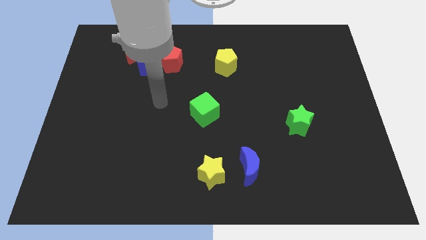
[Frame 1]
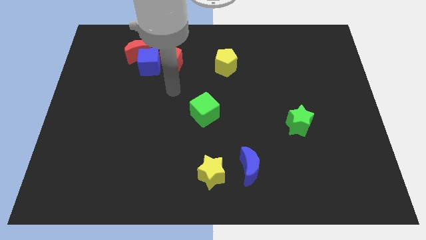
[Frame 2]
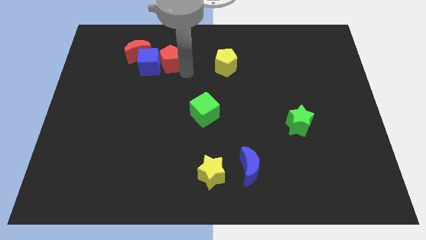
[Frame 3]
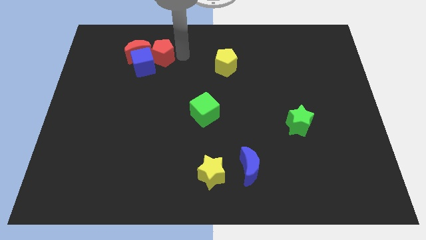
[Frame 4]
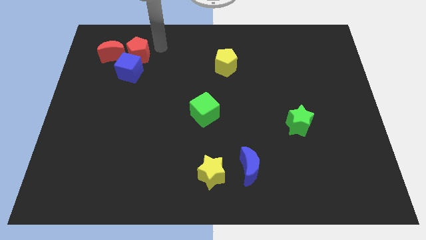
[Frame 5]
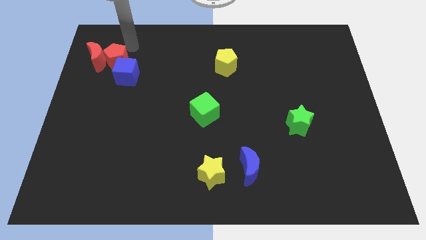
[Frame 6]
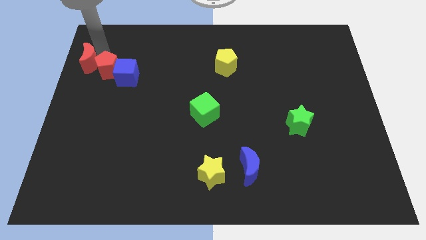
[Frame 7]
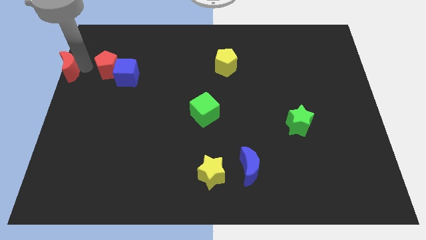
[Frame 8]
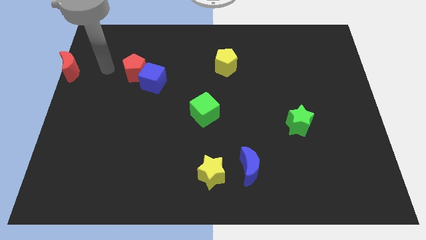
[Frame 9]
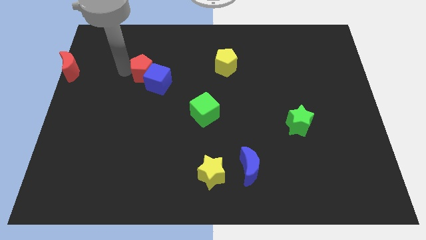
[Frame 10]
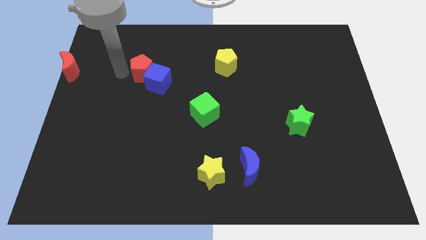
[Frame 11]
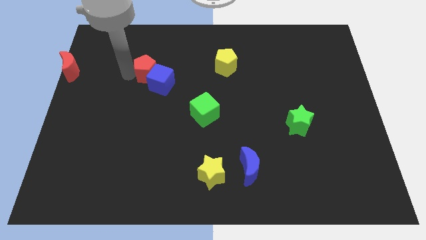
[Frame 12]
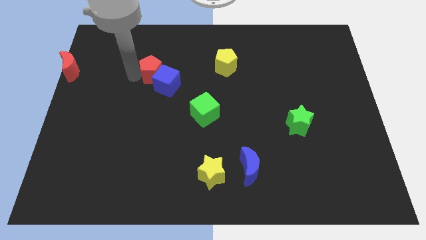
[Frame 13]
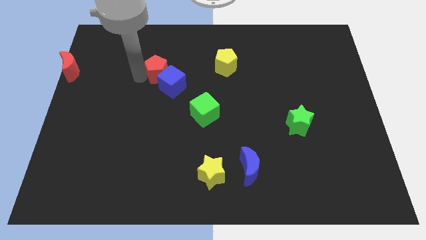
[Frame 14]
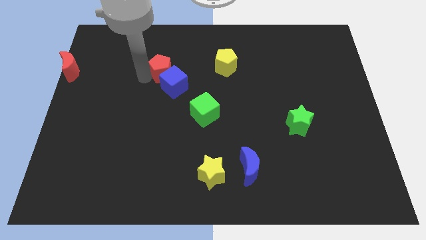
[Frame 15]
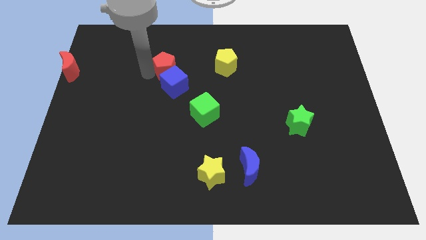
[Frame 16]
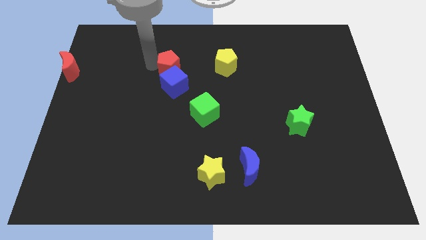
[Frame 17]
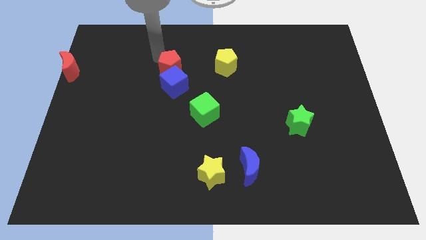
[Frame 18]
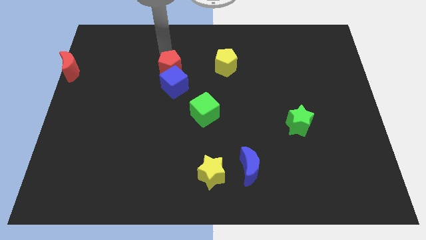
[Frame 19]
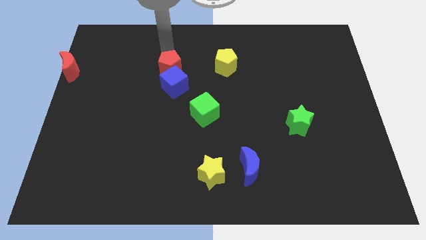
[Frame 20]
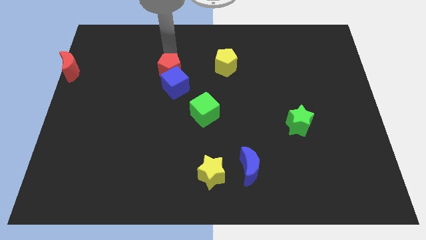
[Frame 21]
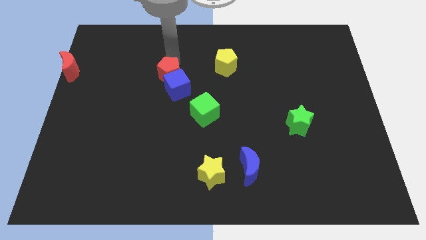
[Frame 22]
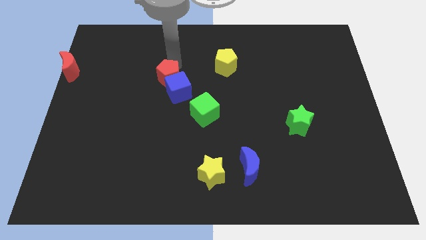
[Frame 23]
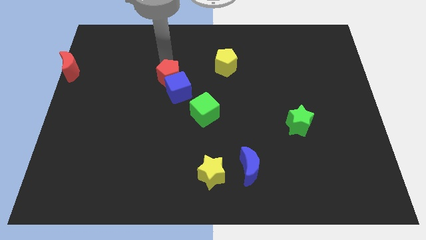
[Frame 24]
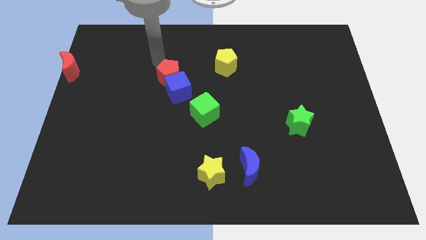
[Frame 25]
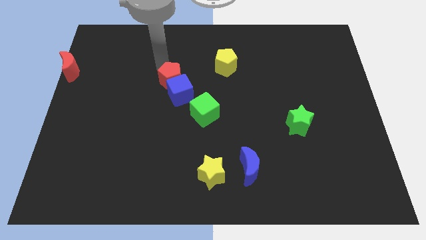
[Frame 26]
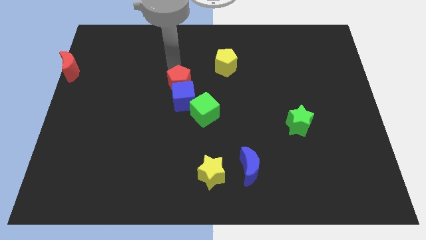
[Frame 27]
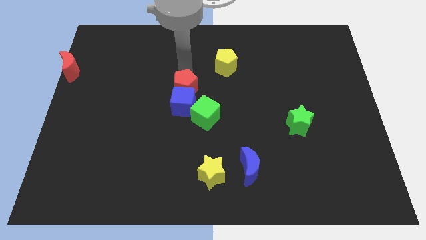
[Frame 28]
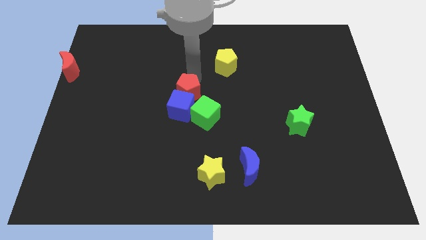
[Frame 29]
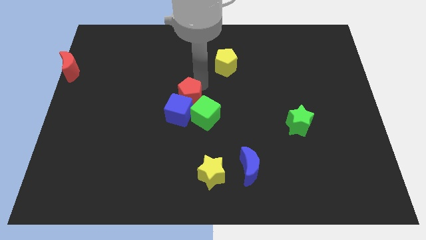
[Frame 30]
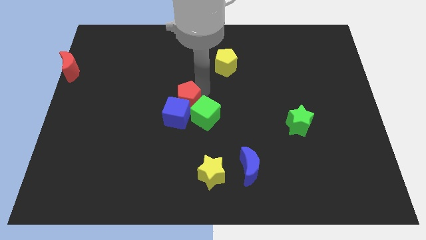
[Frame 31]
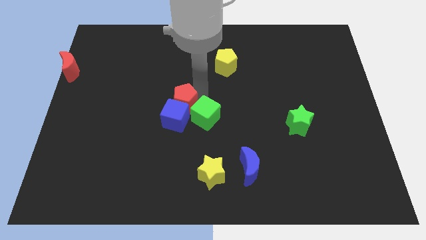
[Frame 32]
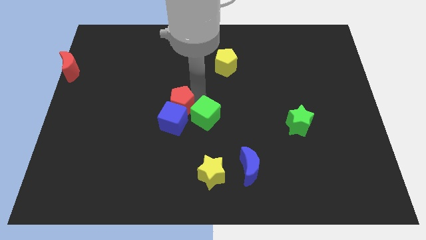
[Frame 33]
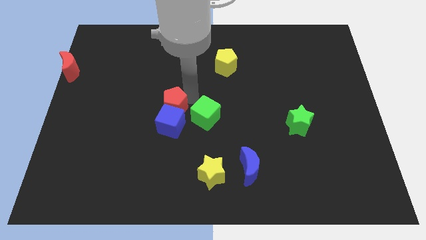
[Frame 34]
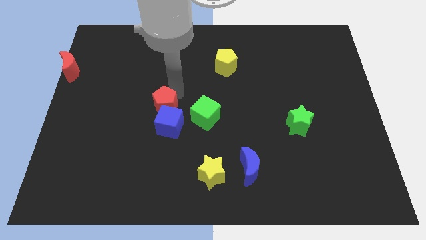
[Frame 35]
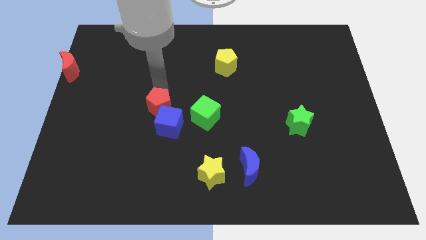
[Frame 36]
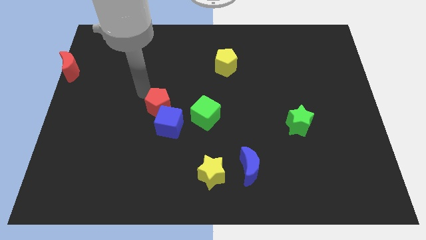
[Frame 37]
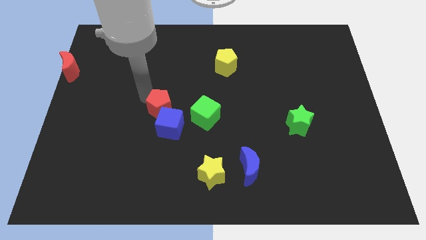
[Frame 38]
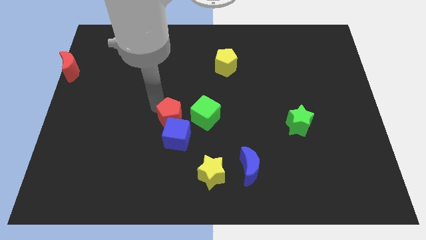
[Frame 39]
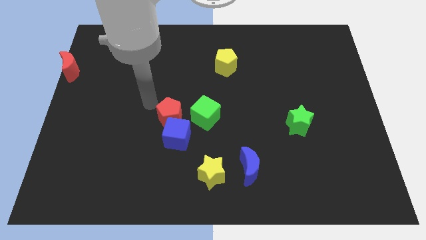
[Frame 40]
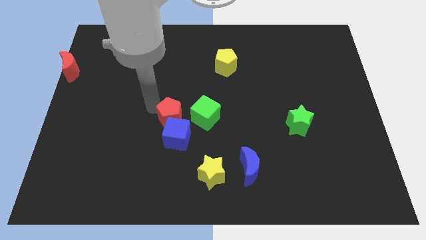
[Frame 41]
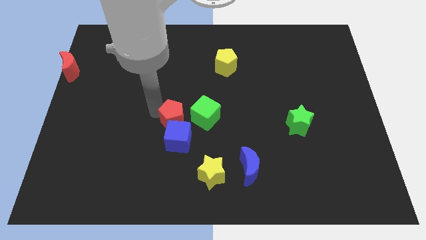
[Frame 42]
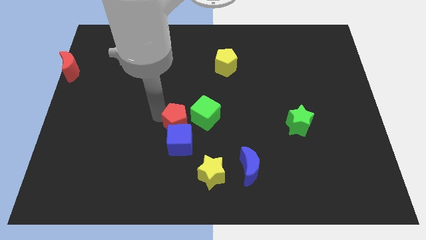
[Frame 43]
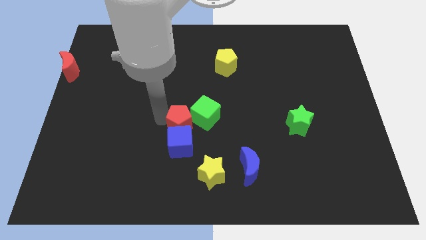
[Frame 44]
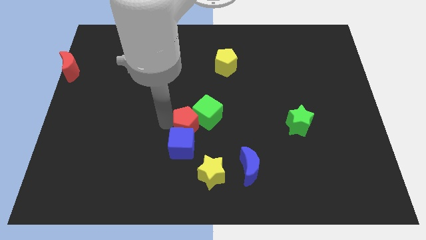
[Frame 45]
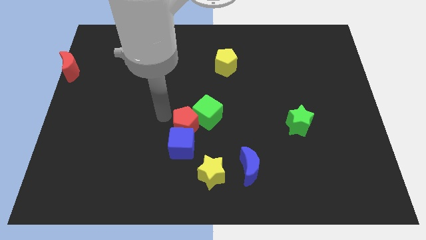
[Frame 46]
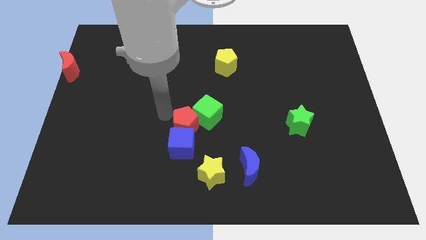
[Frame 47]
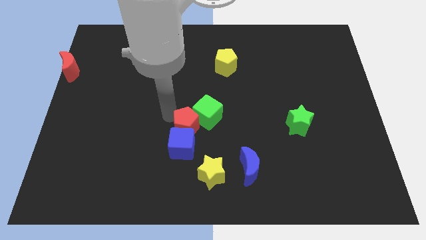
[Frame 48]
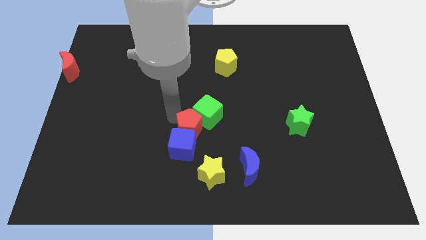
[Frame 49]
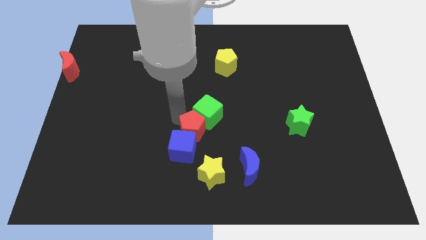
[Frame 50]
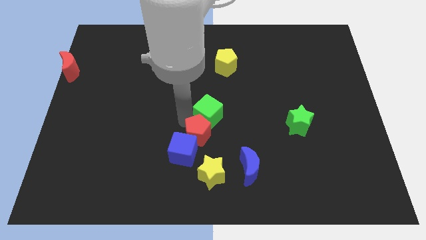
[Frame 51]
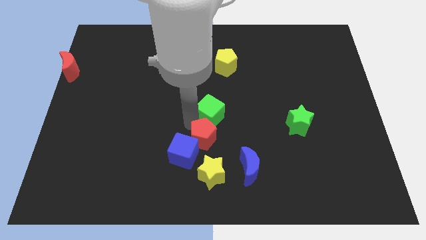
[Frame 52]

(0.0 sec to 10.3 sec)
move the red pentagon diagonally up and to the left of the blue moon

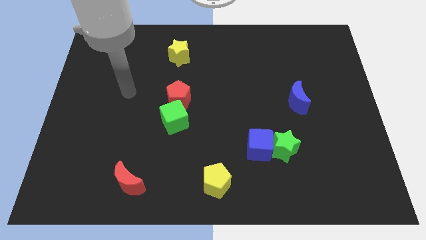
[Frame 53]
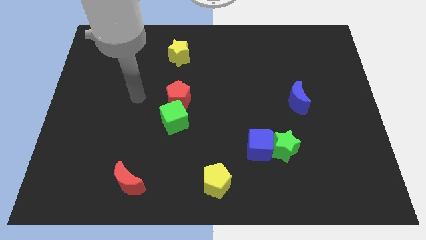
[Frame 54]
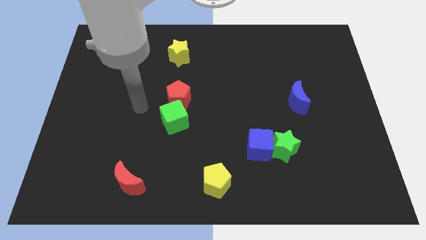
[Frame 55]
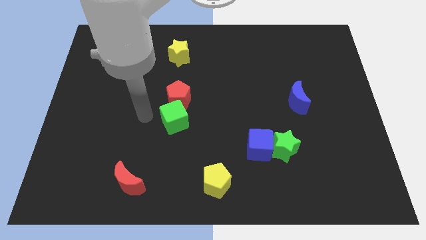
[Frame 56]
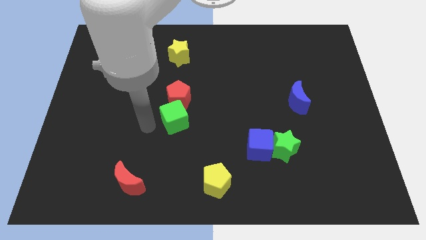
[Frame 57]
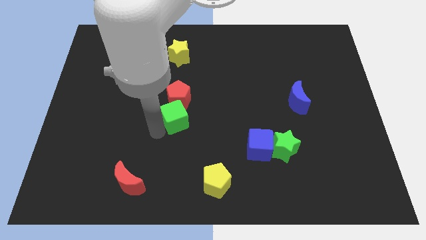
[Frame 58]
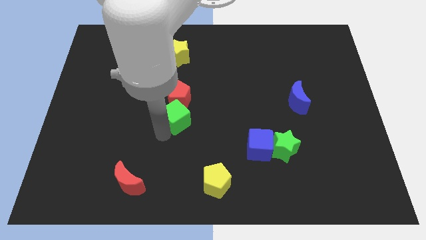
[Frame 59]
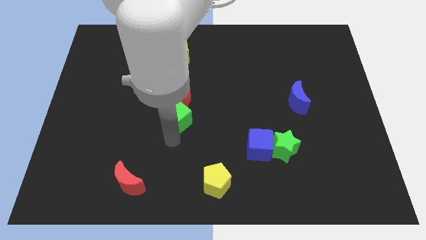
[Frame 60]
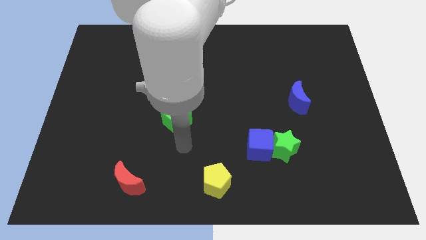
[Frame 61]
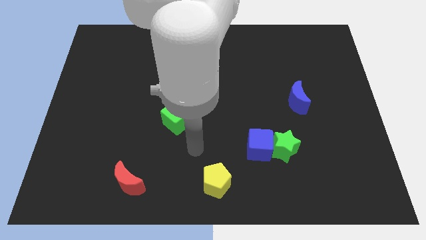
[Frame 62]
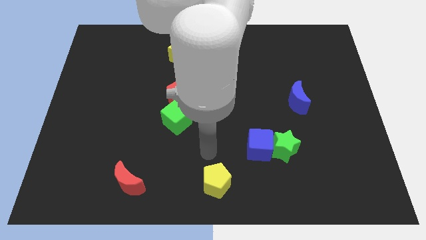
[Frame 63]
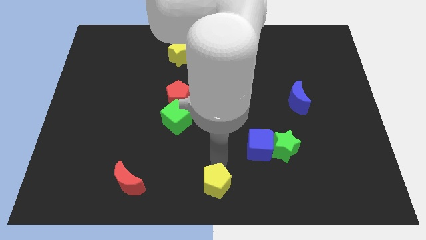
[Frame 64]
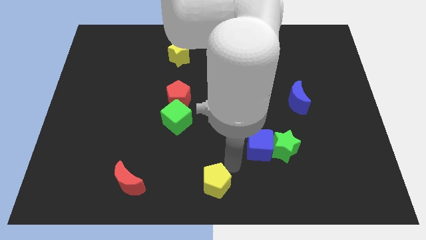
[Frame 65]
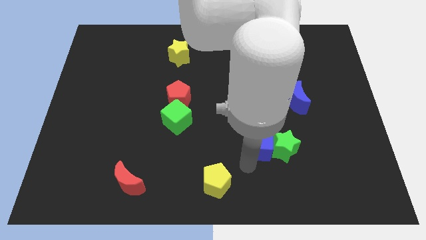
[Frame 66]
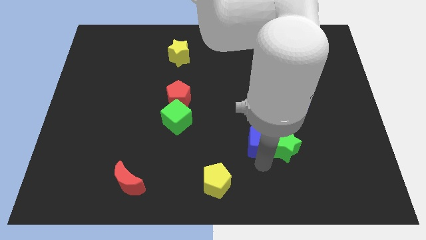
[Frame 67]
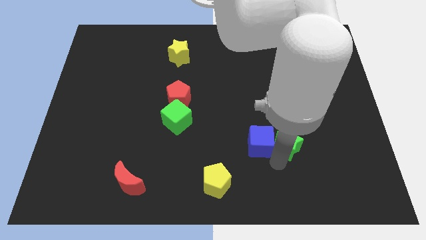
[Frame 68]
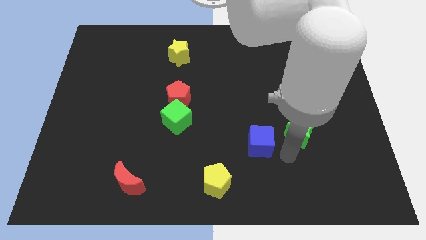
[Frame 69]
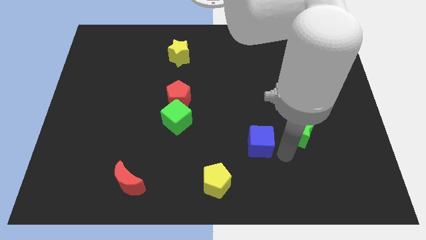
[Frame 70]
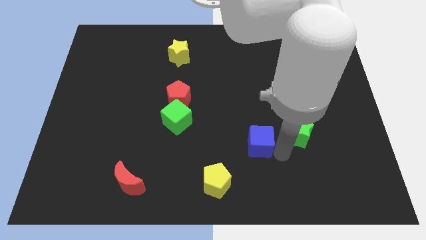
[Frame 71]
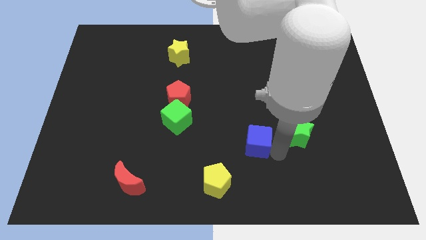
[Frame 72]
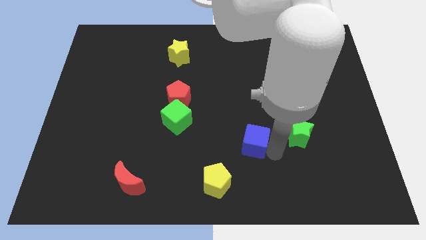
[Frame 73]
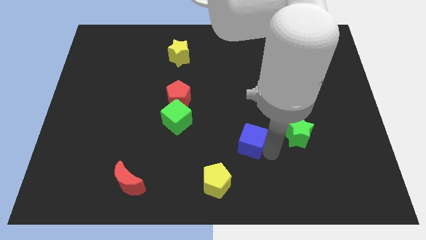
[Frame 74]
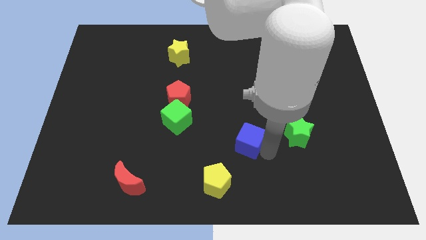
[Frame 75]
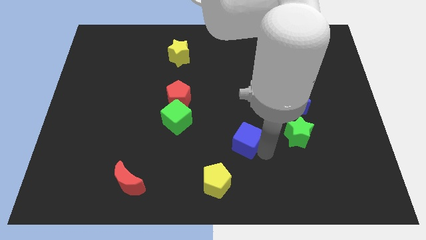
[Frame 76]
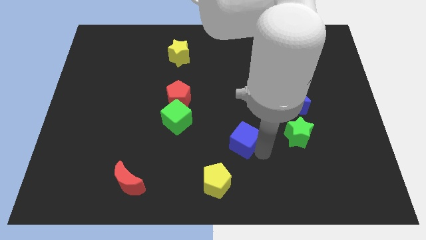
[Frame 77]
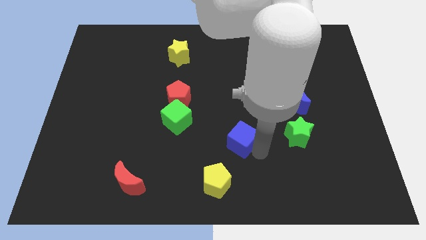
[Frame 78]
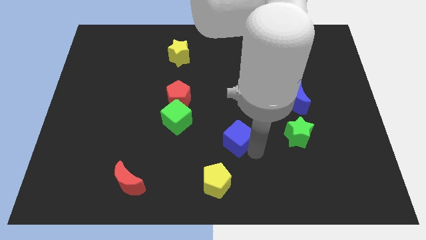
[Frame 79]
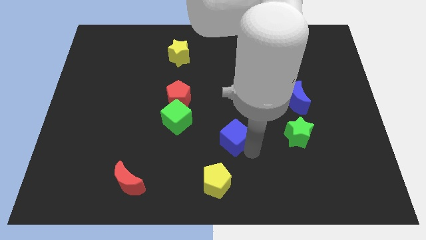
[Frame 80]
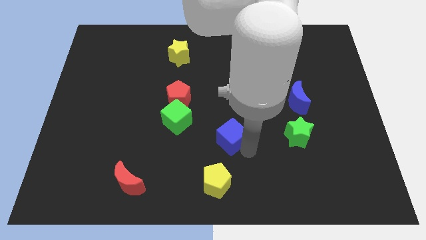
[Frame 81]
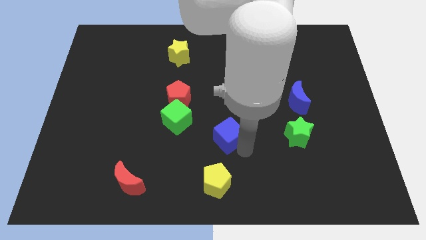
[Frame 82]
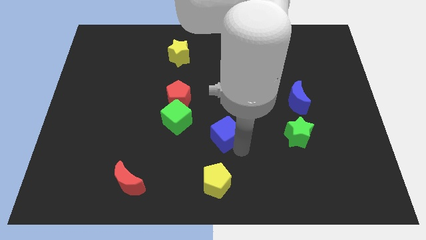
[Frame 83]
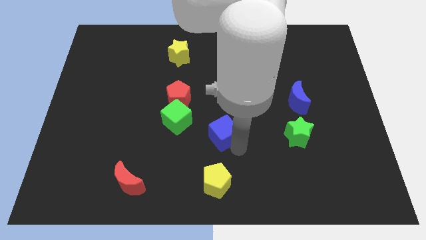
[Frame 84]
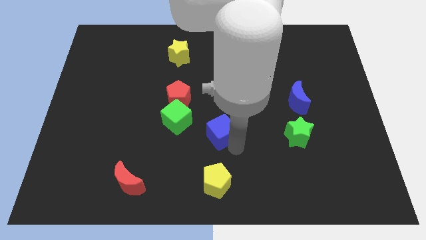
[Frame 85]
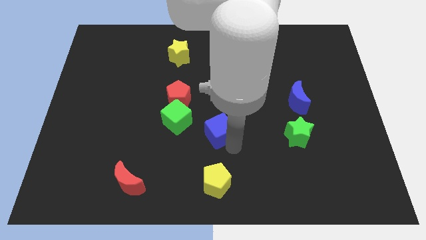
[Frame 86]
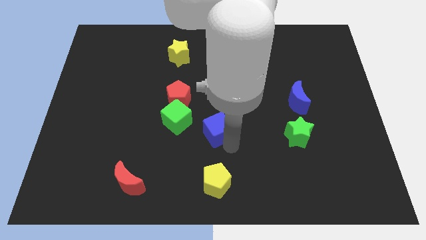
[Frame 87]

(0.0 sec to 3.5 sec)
move the blue cube to the bottom right of the red pentagon
